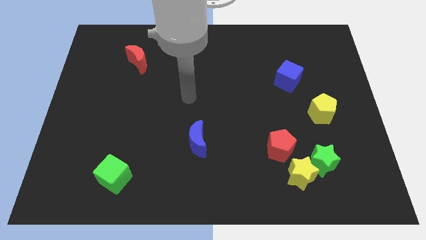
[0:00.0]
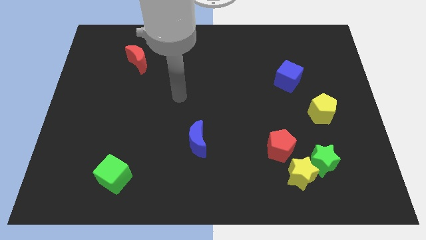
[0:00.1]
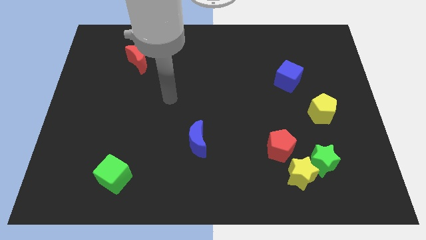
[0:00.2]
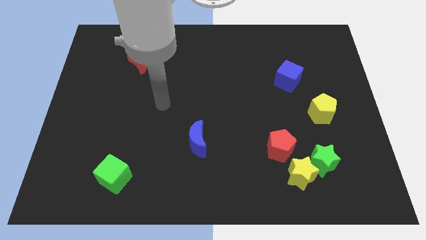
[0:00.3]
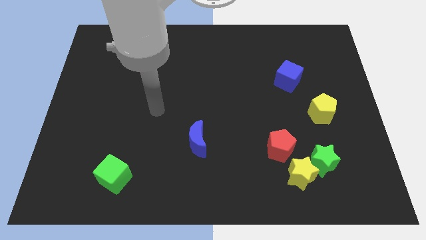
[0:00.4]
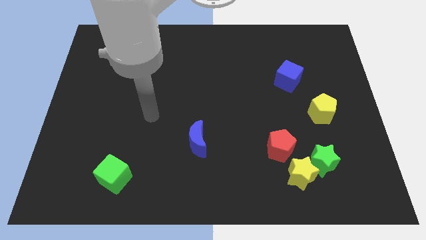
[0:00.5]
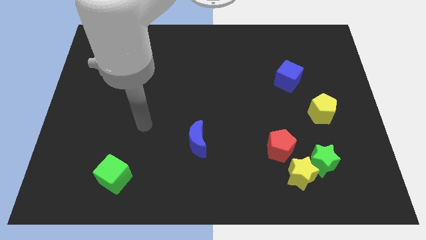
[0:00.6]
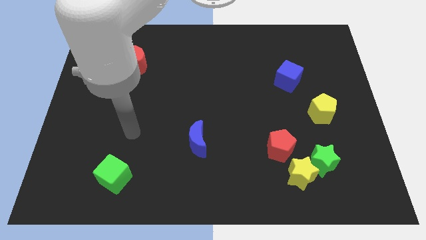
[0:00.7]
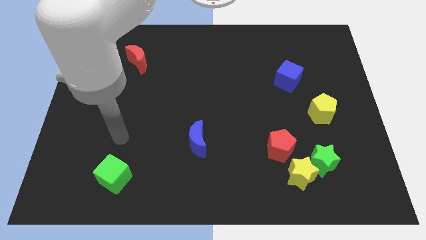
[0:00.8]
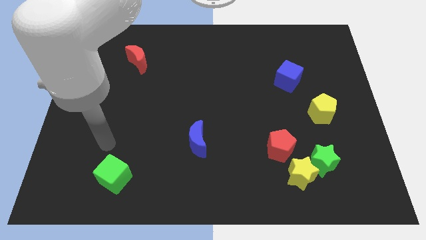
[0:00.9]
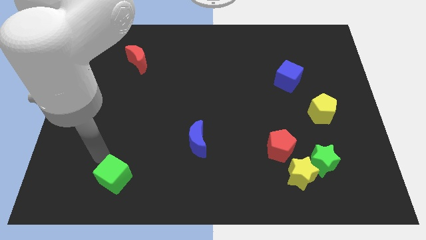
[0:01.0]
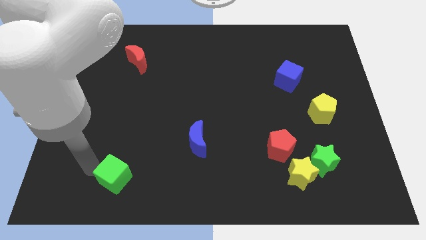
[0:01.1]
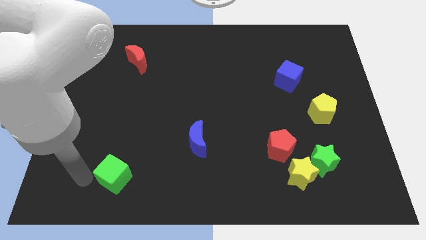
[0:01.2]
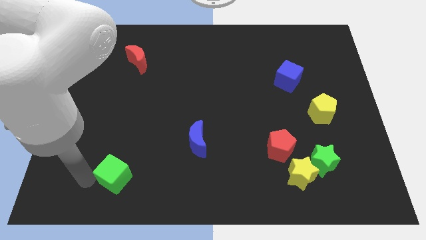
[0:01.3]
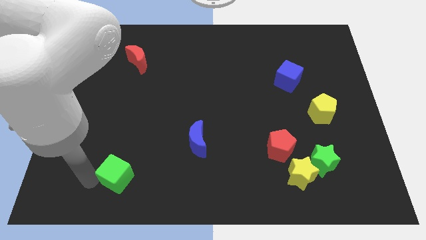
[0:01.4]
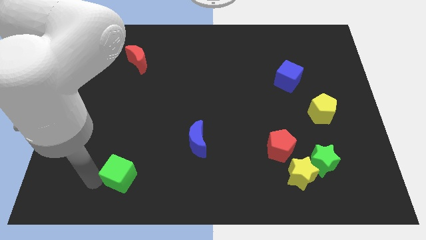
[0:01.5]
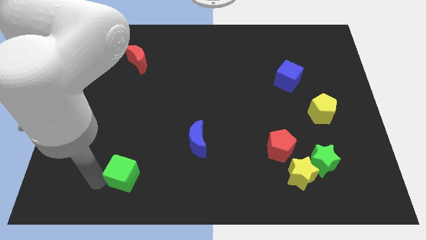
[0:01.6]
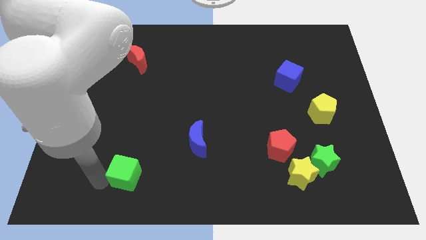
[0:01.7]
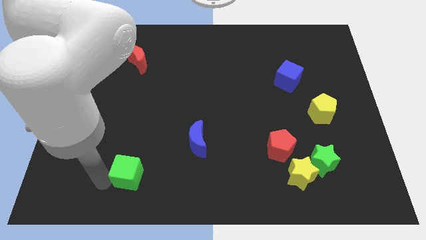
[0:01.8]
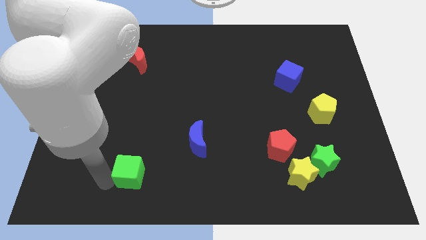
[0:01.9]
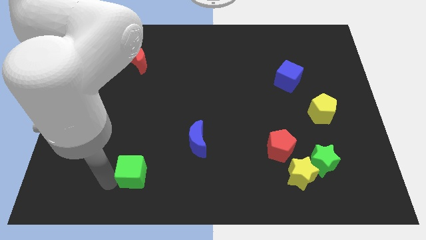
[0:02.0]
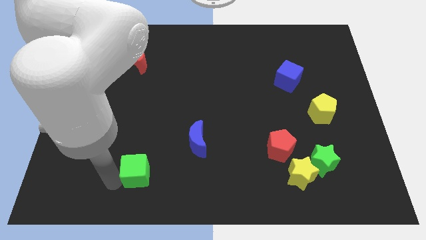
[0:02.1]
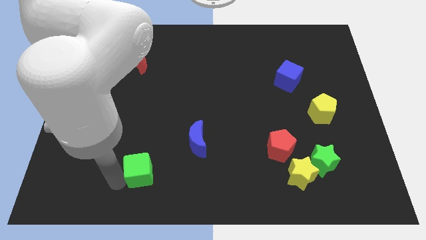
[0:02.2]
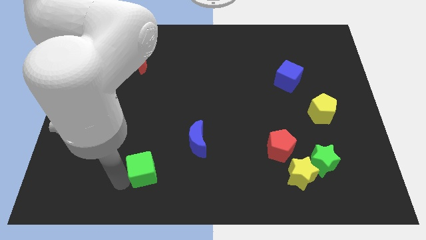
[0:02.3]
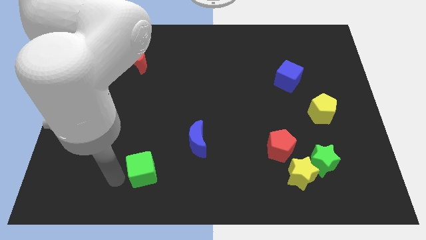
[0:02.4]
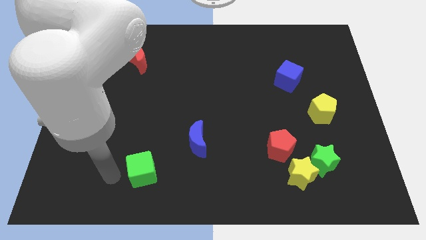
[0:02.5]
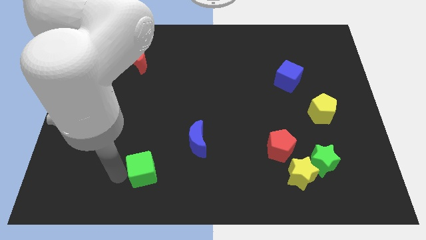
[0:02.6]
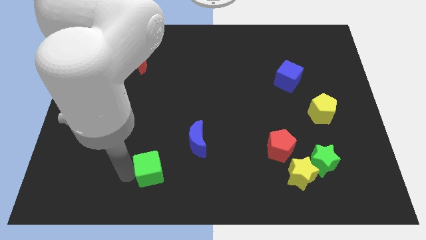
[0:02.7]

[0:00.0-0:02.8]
slightly push the green cube right

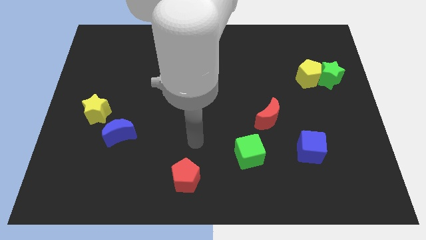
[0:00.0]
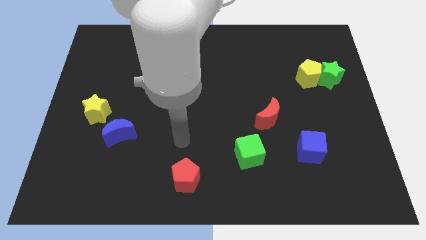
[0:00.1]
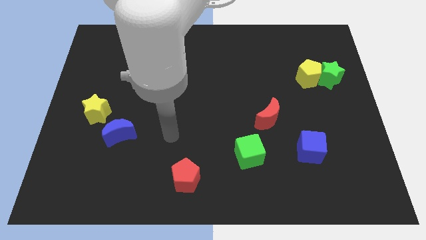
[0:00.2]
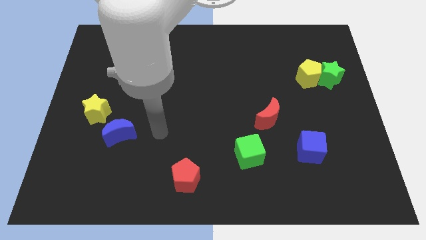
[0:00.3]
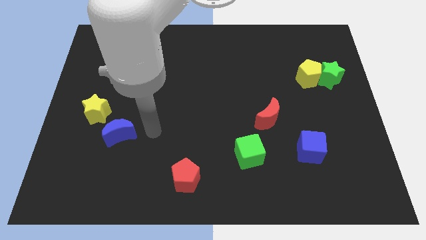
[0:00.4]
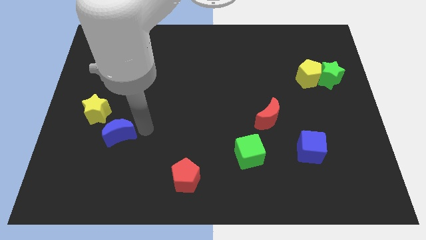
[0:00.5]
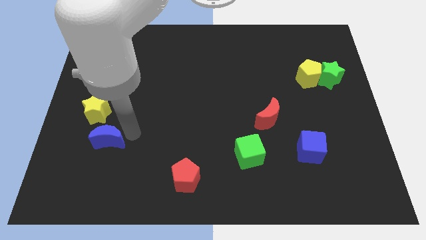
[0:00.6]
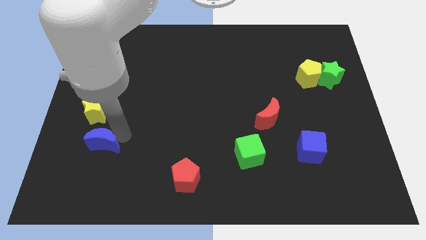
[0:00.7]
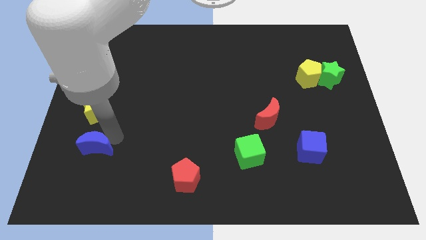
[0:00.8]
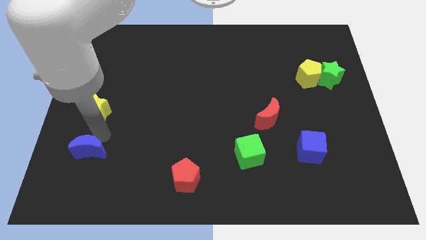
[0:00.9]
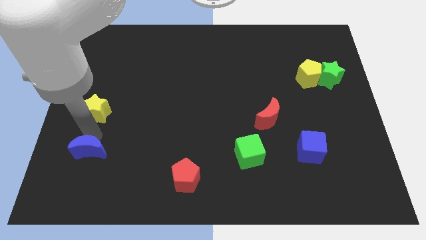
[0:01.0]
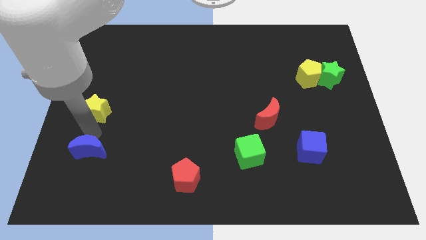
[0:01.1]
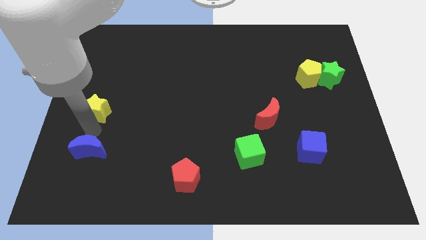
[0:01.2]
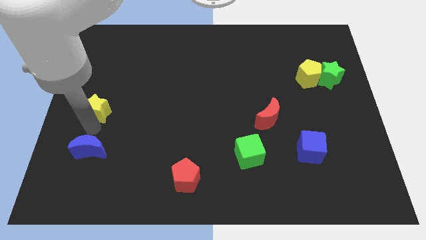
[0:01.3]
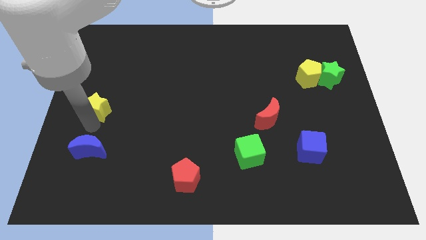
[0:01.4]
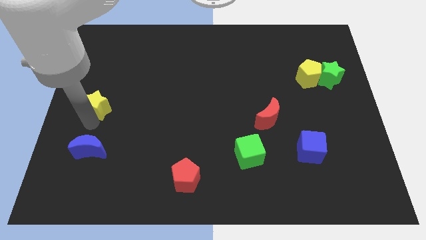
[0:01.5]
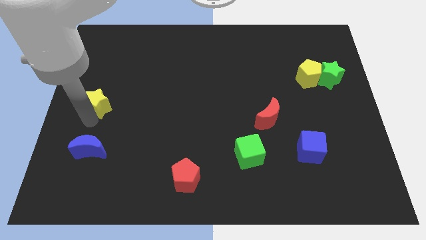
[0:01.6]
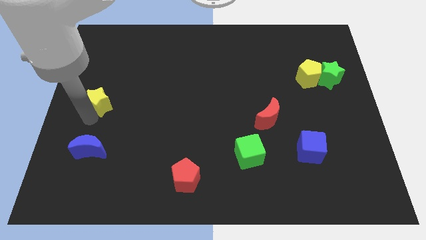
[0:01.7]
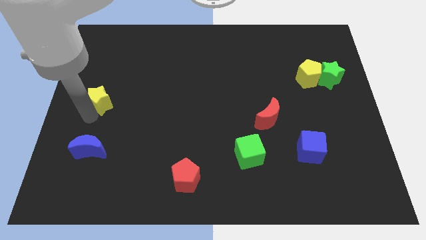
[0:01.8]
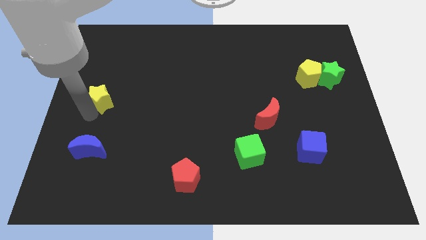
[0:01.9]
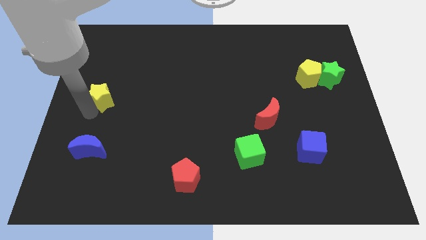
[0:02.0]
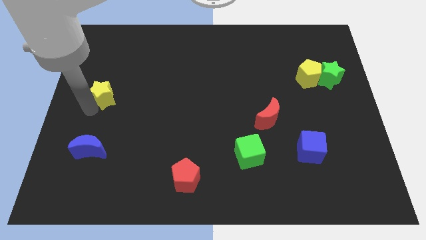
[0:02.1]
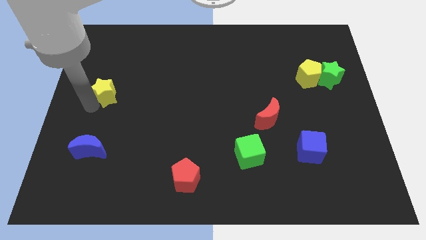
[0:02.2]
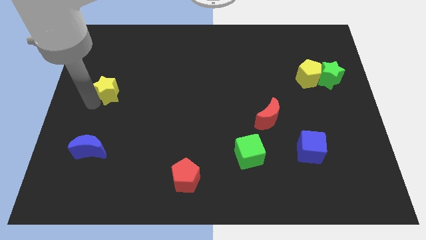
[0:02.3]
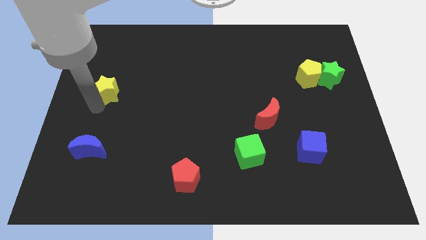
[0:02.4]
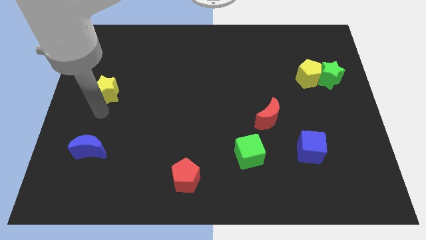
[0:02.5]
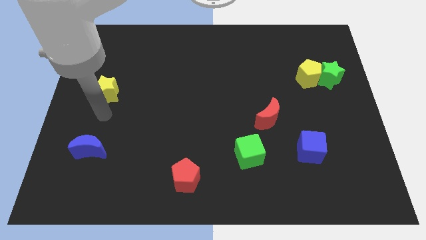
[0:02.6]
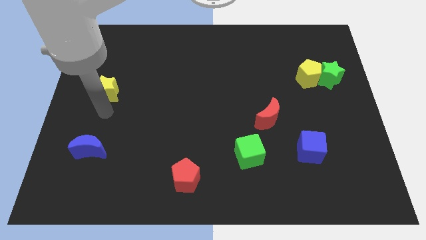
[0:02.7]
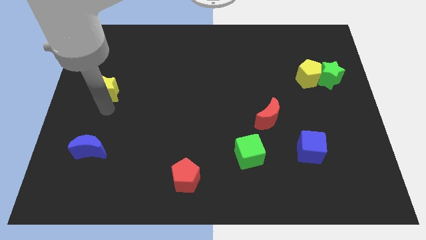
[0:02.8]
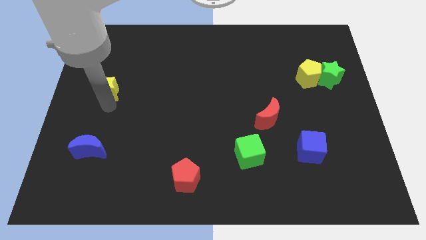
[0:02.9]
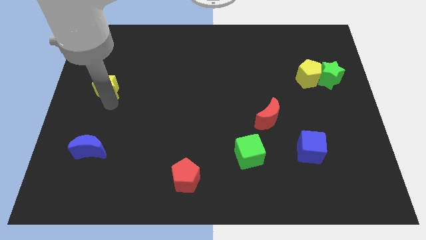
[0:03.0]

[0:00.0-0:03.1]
slightly slide the yellow star upwards

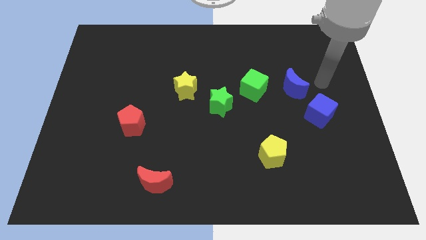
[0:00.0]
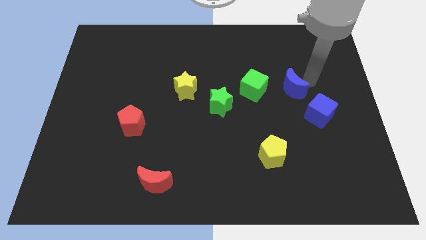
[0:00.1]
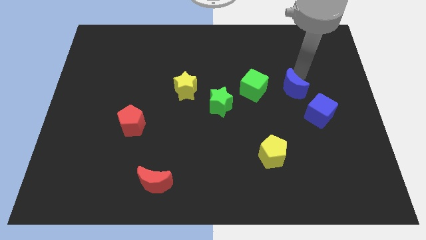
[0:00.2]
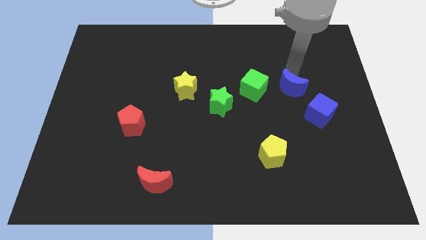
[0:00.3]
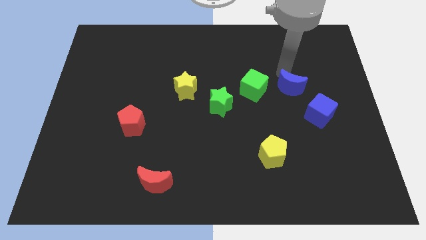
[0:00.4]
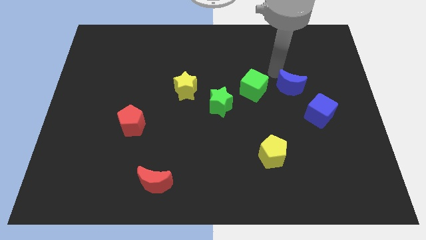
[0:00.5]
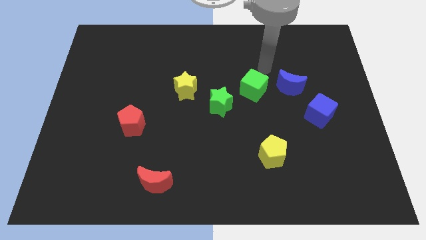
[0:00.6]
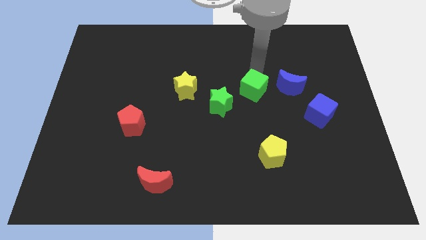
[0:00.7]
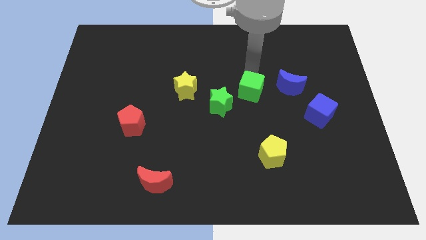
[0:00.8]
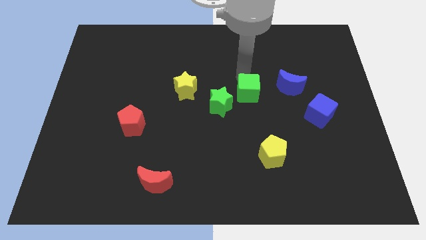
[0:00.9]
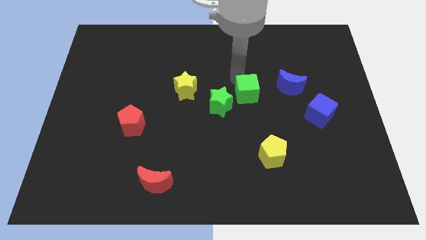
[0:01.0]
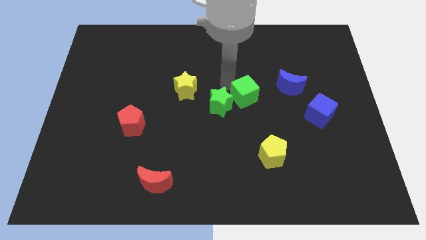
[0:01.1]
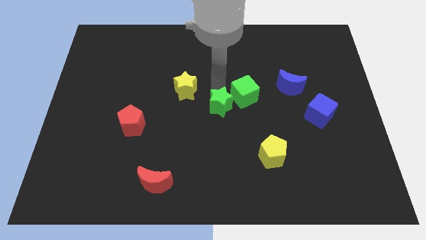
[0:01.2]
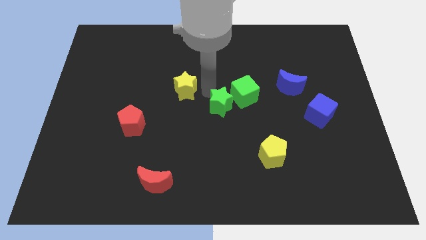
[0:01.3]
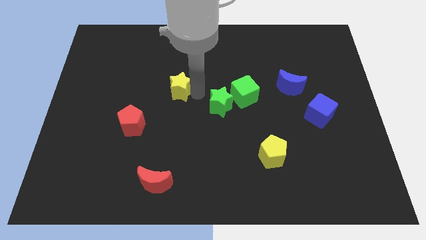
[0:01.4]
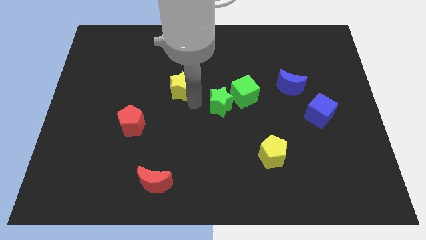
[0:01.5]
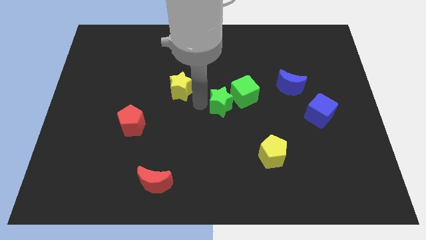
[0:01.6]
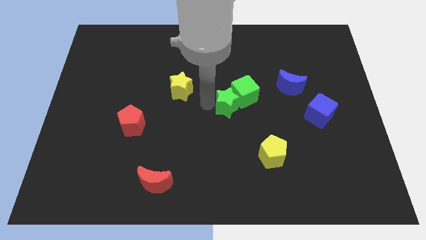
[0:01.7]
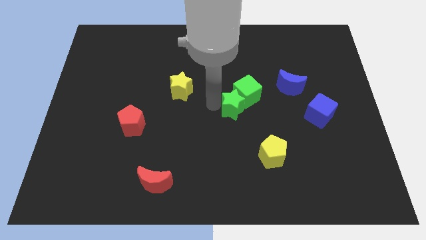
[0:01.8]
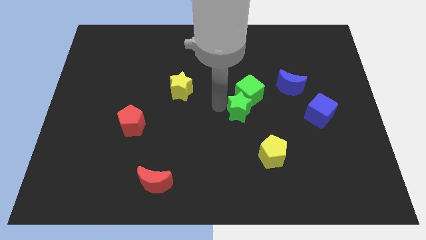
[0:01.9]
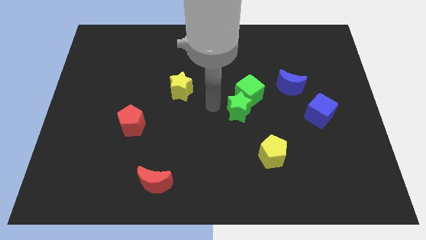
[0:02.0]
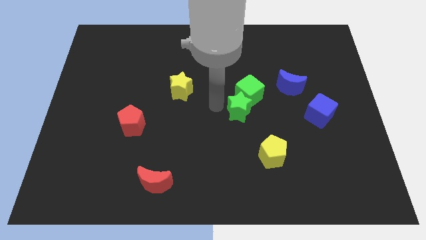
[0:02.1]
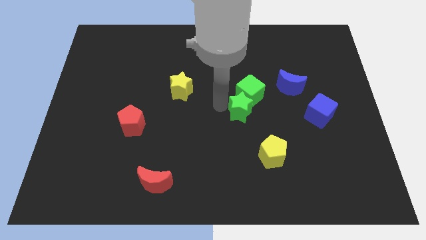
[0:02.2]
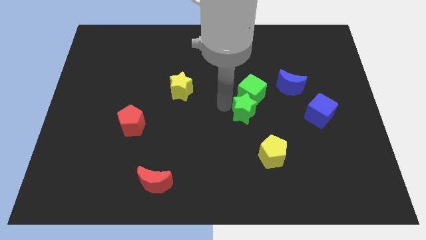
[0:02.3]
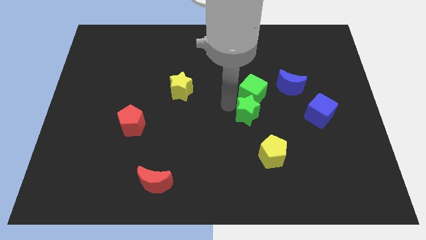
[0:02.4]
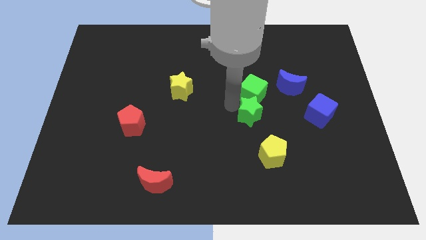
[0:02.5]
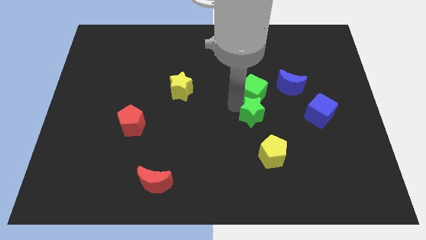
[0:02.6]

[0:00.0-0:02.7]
move the green star a bit right
